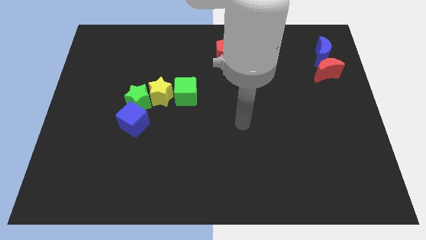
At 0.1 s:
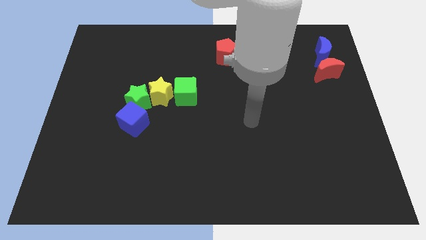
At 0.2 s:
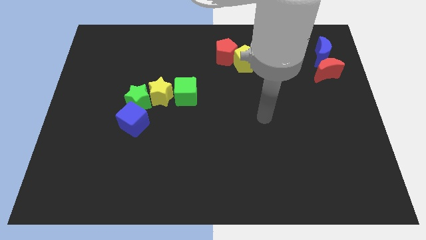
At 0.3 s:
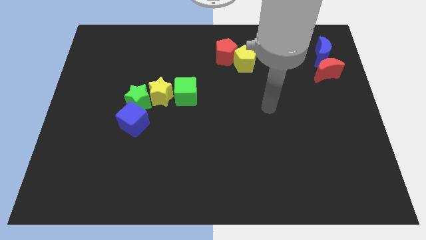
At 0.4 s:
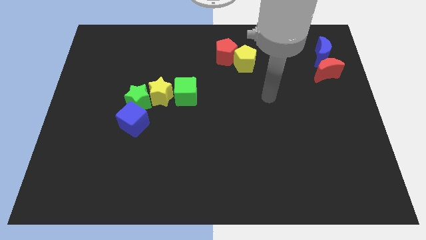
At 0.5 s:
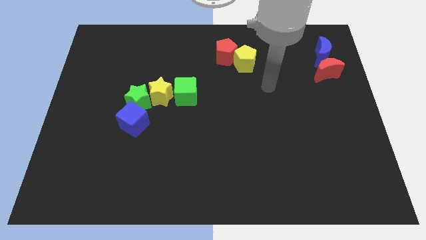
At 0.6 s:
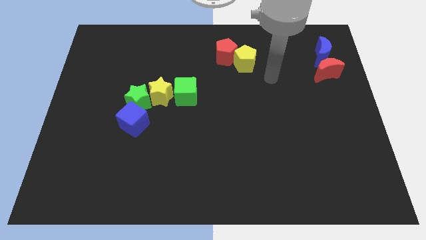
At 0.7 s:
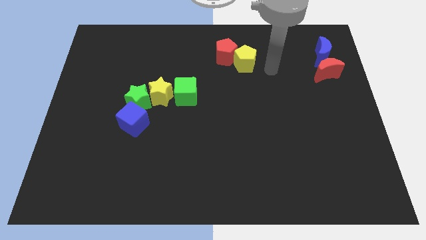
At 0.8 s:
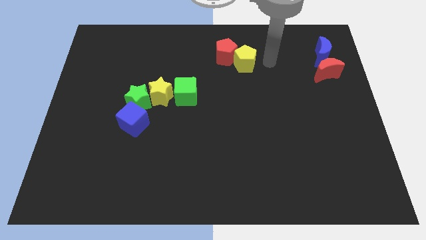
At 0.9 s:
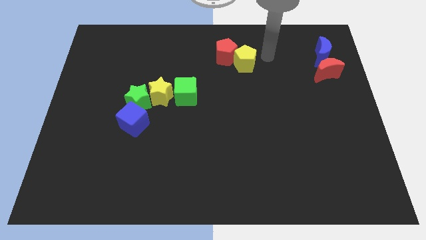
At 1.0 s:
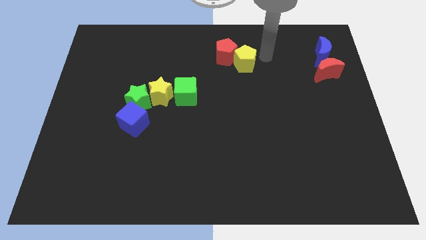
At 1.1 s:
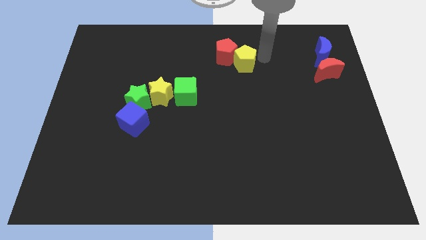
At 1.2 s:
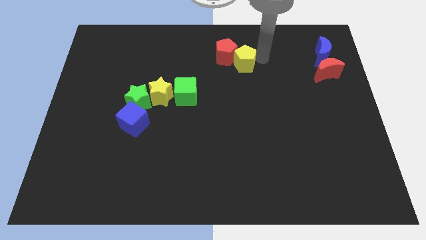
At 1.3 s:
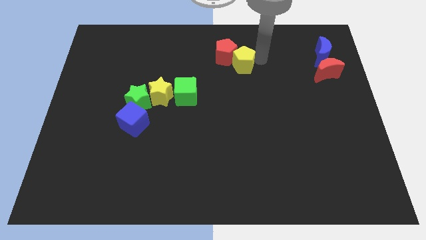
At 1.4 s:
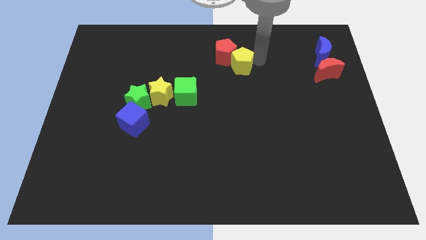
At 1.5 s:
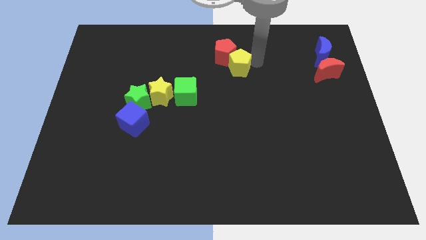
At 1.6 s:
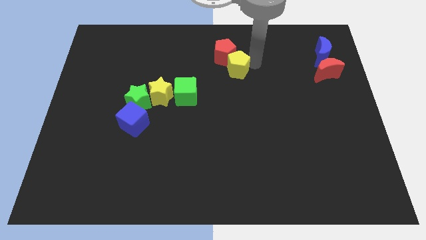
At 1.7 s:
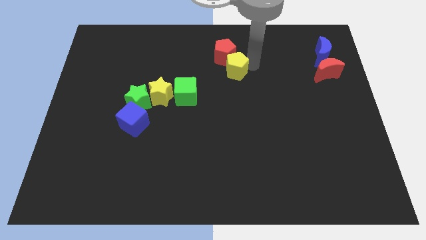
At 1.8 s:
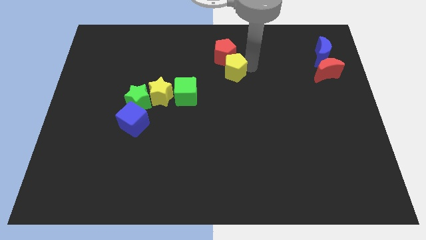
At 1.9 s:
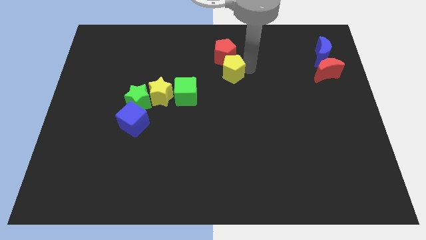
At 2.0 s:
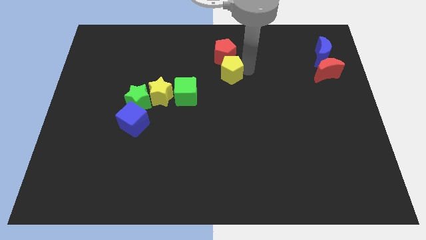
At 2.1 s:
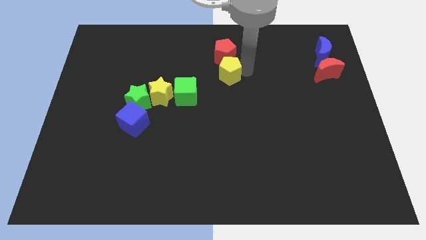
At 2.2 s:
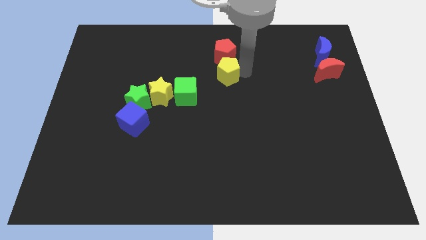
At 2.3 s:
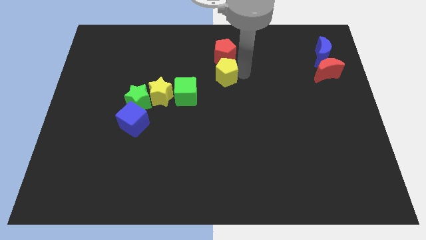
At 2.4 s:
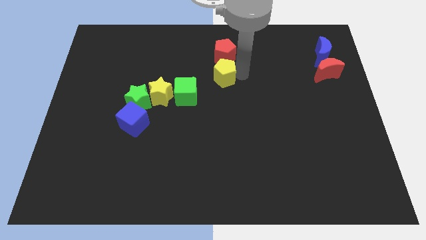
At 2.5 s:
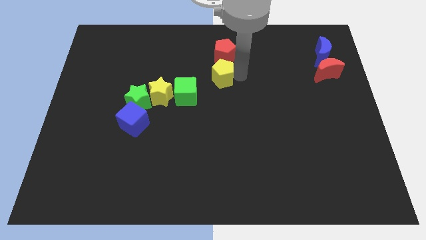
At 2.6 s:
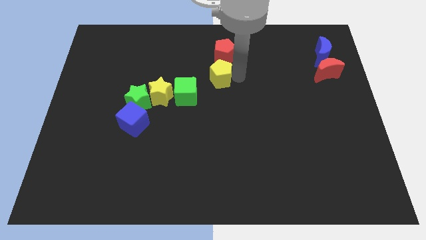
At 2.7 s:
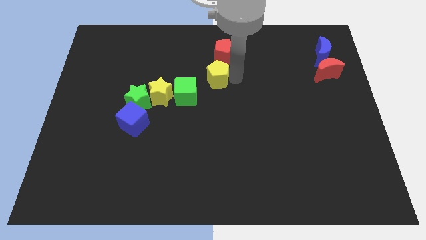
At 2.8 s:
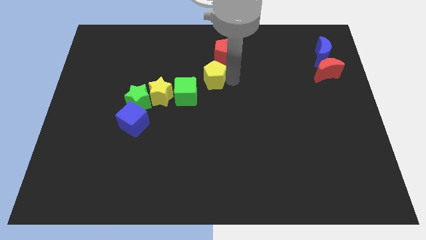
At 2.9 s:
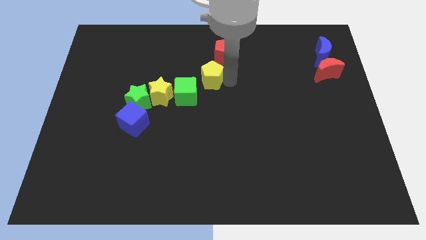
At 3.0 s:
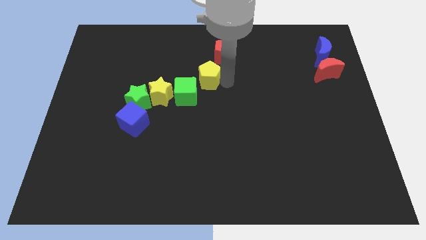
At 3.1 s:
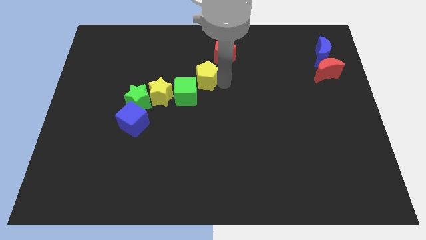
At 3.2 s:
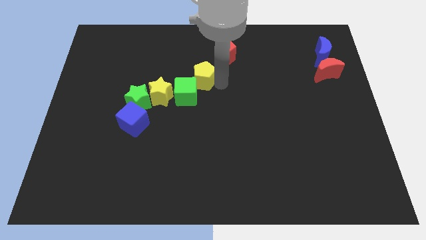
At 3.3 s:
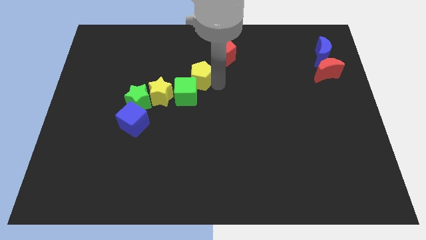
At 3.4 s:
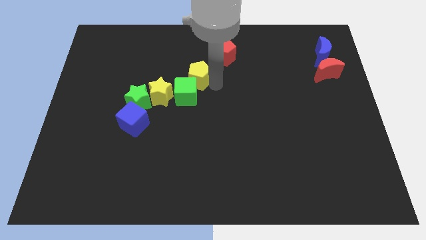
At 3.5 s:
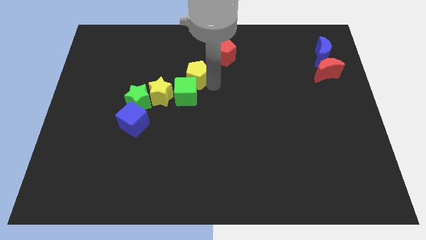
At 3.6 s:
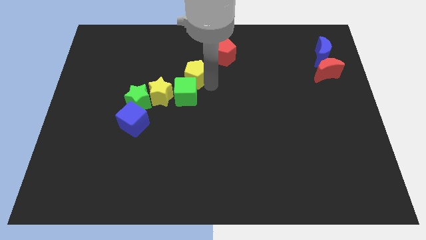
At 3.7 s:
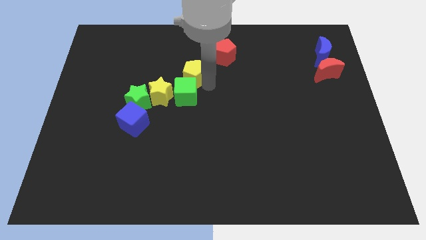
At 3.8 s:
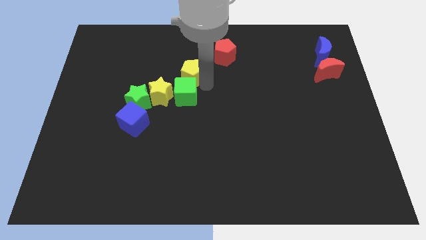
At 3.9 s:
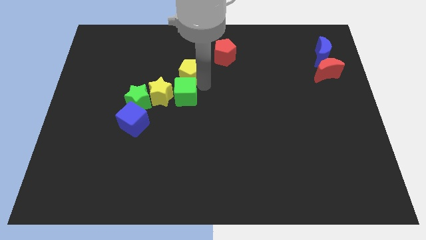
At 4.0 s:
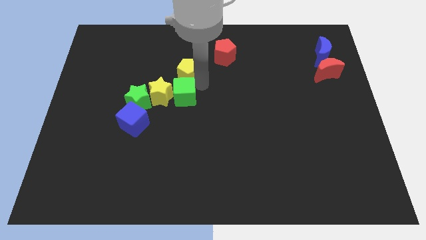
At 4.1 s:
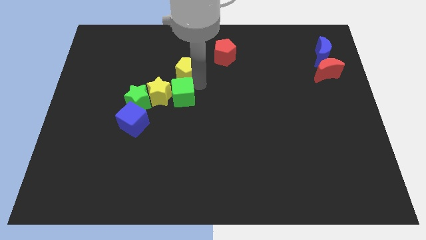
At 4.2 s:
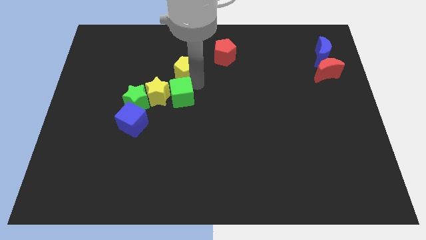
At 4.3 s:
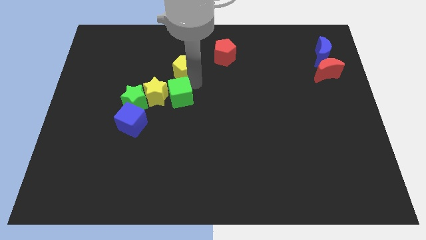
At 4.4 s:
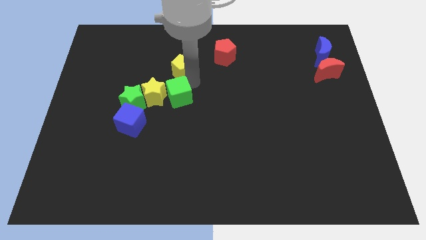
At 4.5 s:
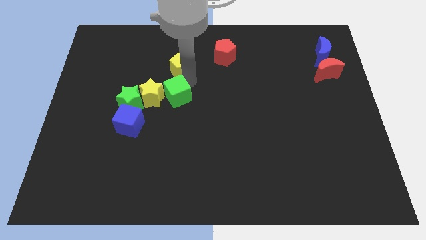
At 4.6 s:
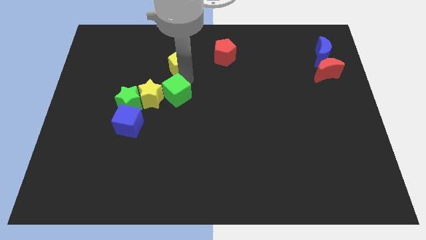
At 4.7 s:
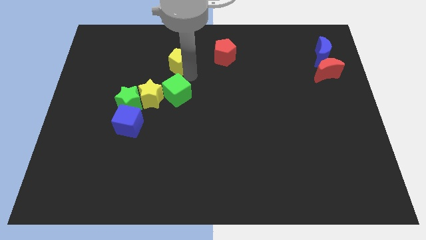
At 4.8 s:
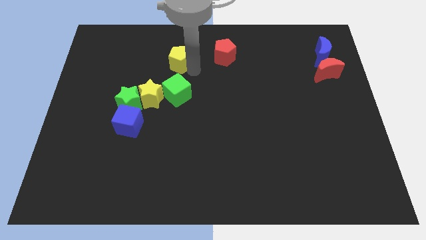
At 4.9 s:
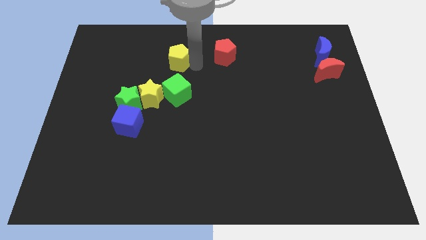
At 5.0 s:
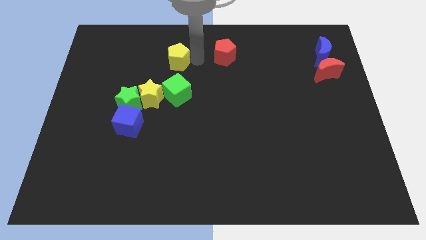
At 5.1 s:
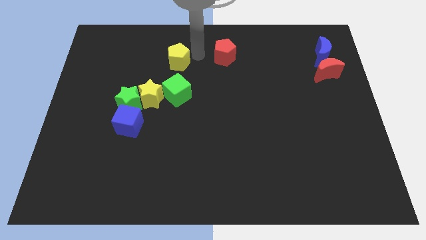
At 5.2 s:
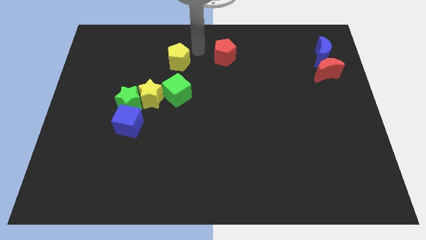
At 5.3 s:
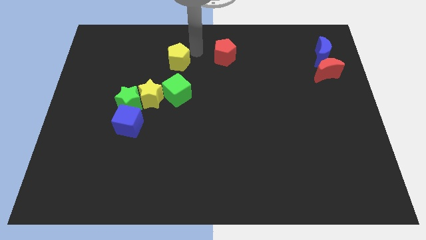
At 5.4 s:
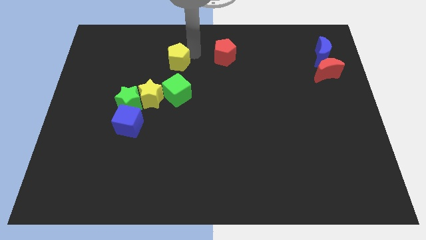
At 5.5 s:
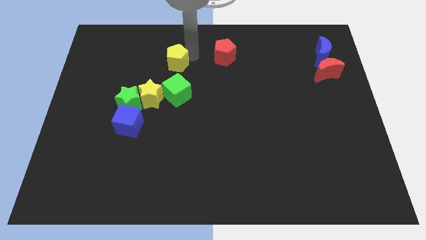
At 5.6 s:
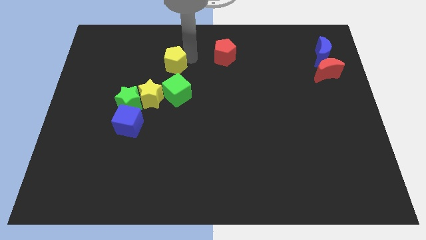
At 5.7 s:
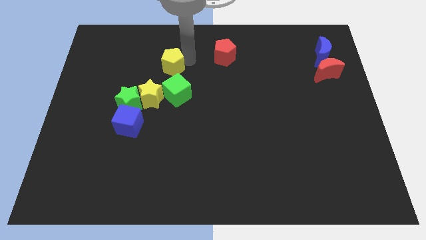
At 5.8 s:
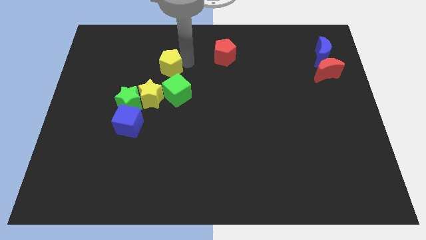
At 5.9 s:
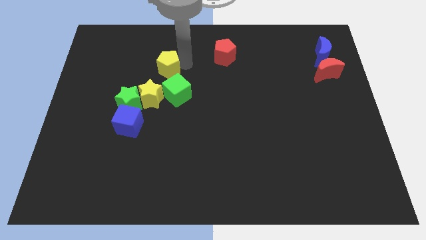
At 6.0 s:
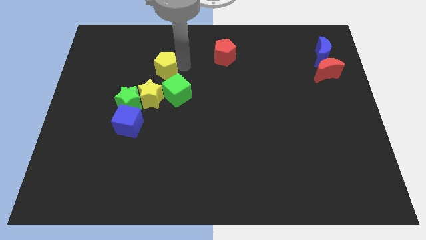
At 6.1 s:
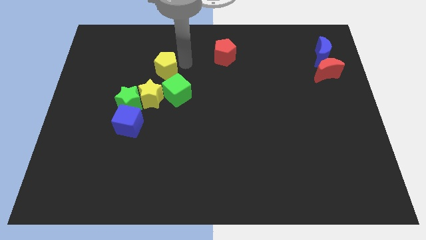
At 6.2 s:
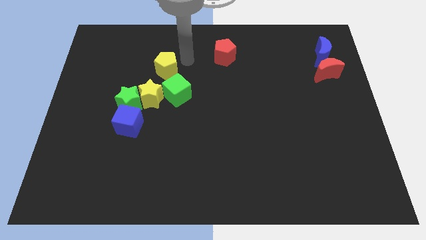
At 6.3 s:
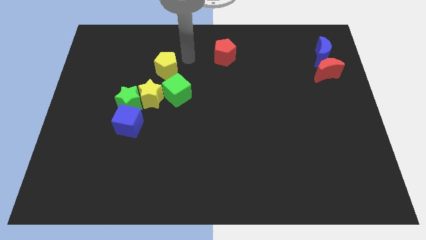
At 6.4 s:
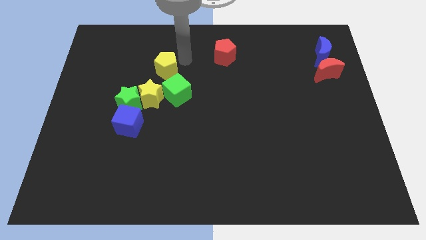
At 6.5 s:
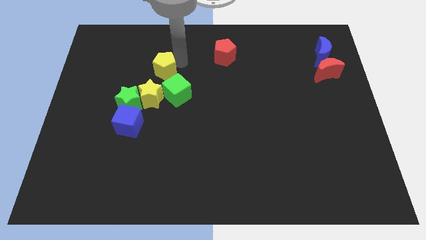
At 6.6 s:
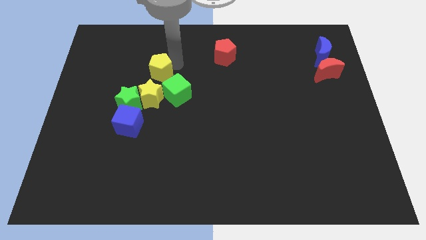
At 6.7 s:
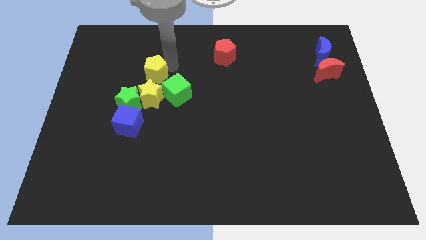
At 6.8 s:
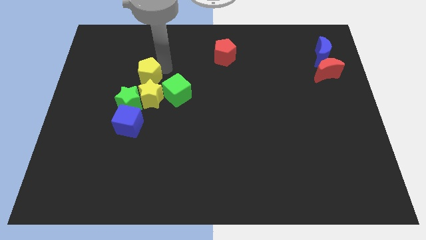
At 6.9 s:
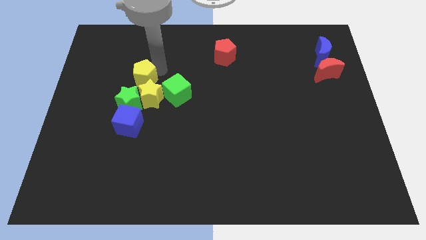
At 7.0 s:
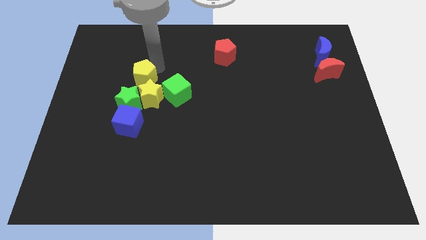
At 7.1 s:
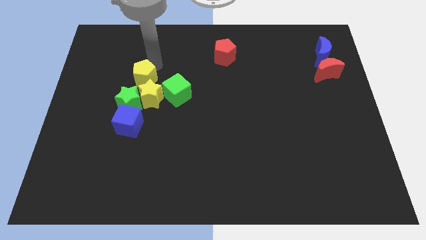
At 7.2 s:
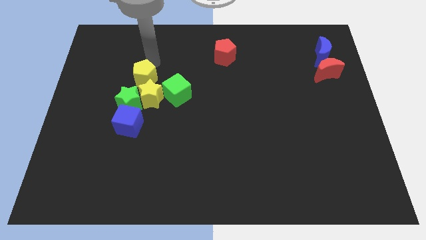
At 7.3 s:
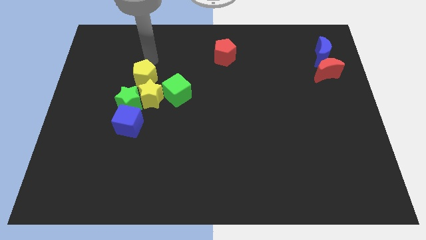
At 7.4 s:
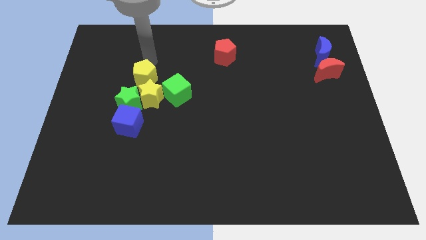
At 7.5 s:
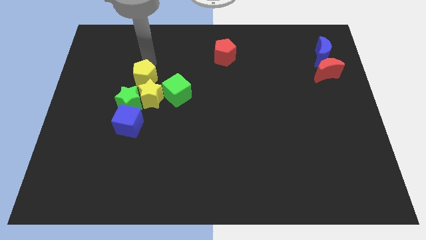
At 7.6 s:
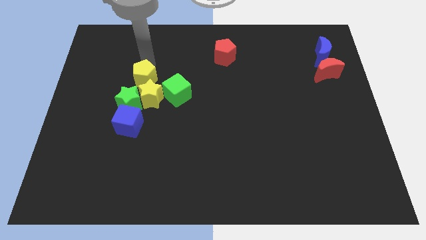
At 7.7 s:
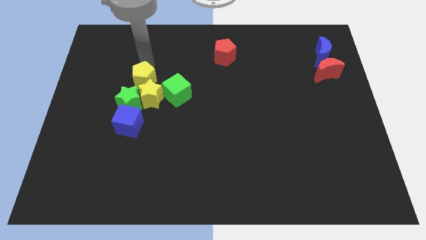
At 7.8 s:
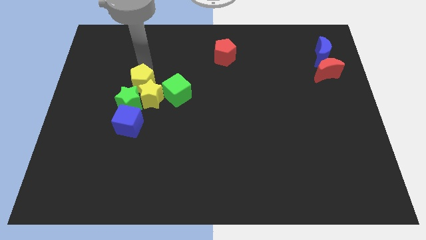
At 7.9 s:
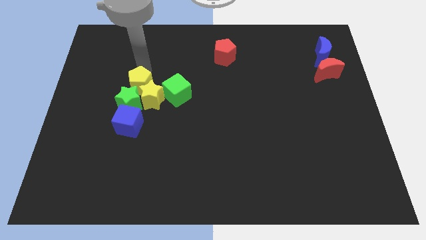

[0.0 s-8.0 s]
move the yellow pentagon to the green star
